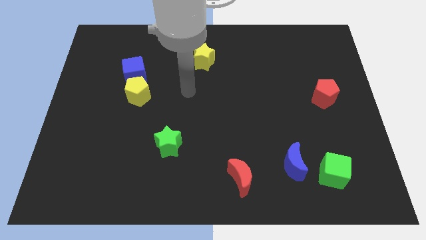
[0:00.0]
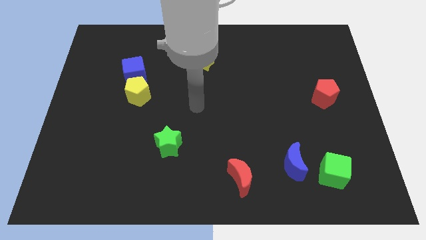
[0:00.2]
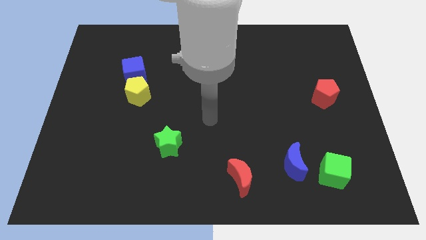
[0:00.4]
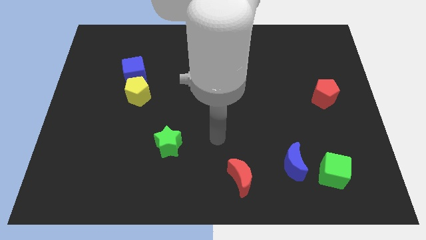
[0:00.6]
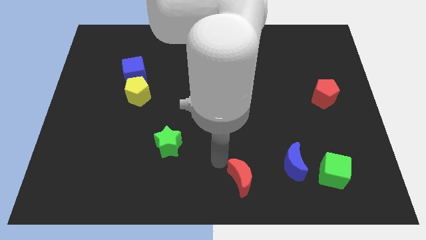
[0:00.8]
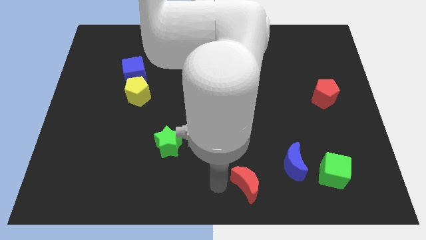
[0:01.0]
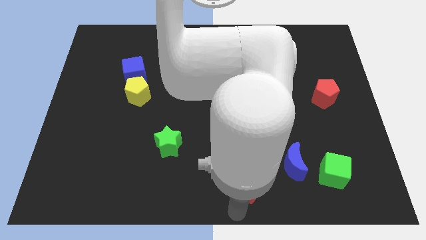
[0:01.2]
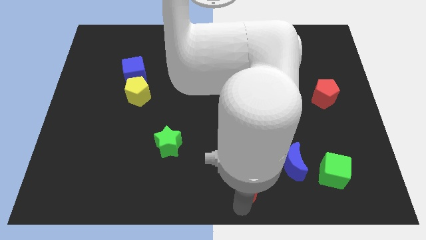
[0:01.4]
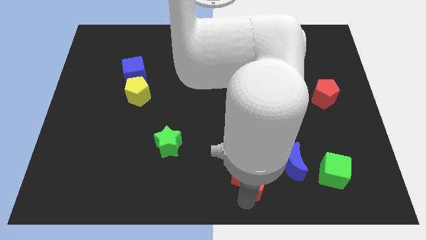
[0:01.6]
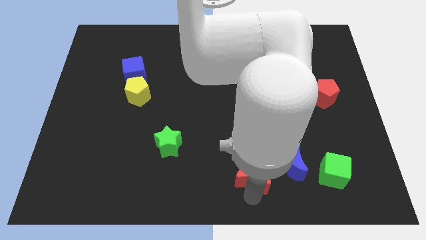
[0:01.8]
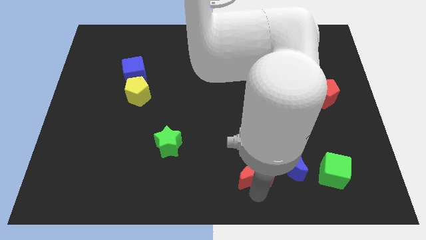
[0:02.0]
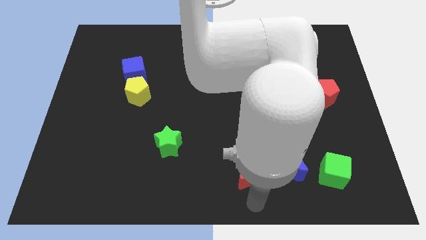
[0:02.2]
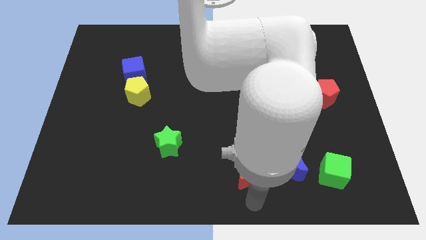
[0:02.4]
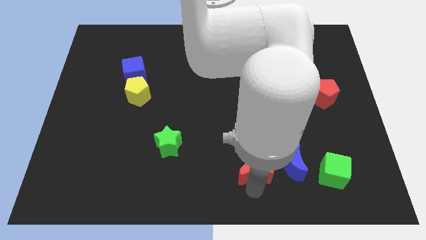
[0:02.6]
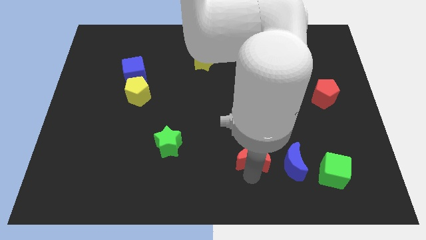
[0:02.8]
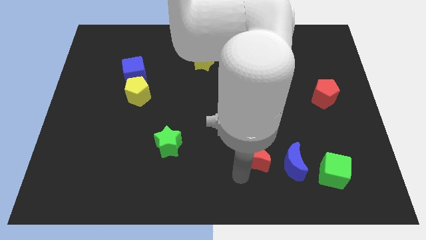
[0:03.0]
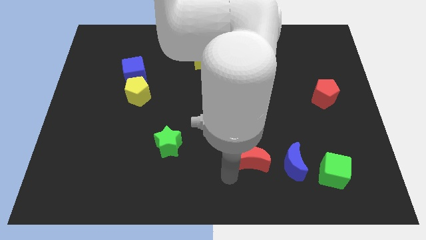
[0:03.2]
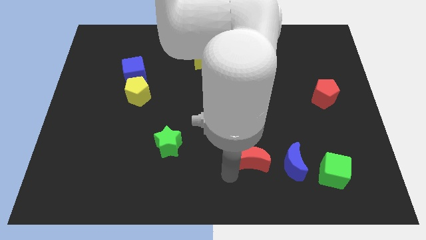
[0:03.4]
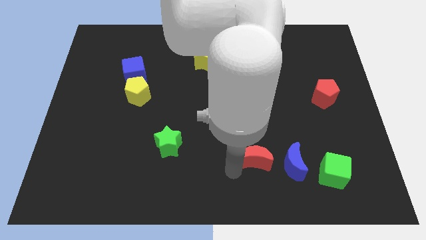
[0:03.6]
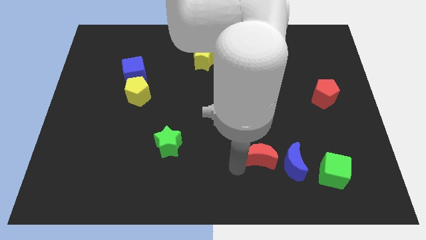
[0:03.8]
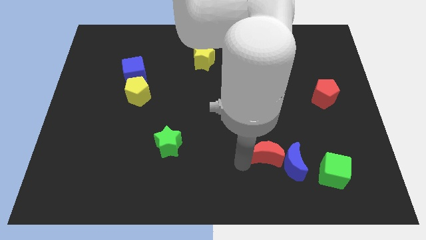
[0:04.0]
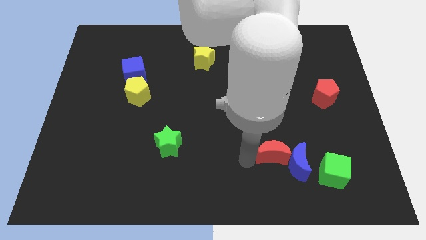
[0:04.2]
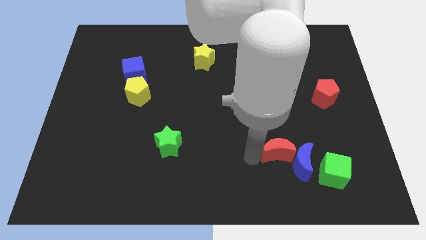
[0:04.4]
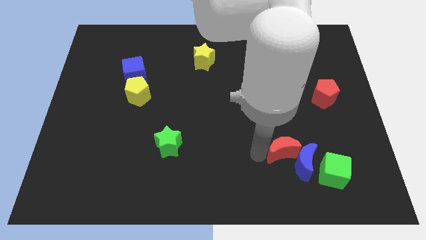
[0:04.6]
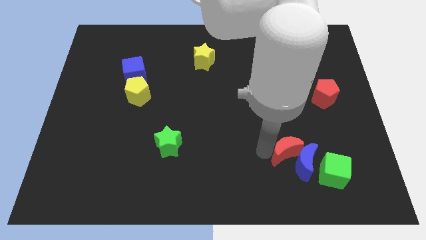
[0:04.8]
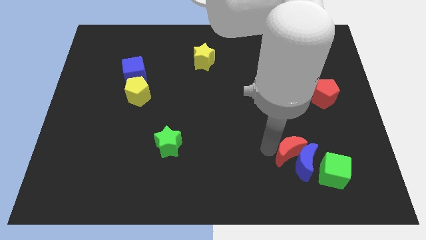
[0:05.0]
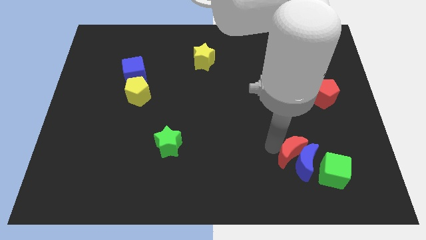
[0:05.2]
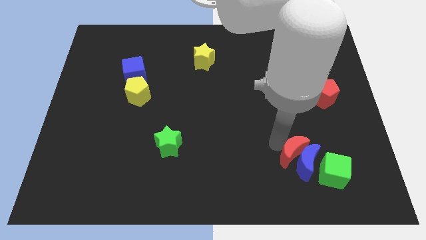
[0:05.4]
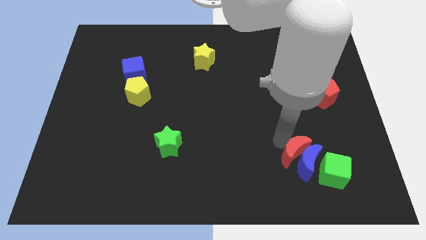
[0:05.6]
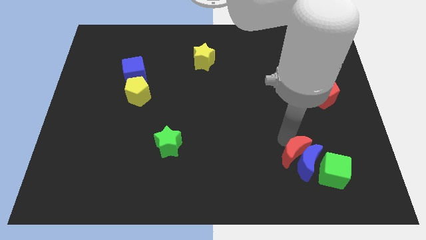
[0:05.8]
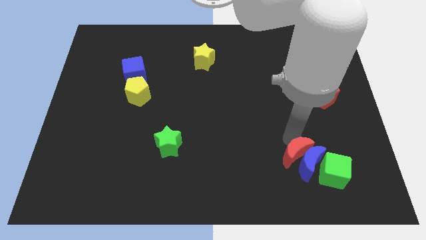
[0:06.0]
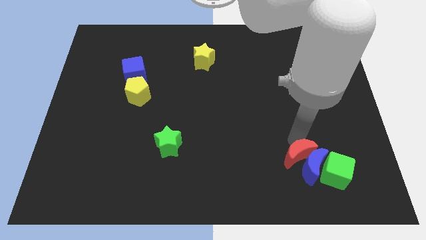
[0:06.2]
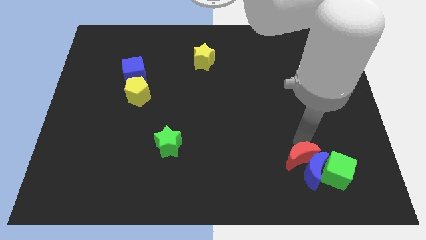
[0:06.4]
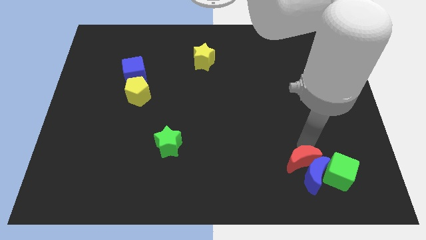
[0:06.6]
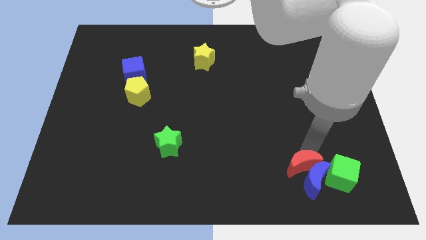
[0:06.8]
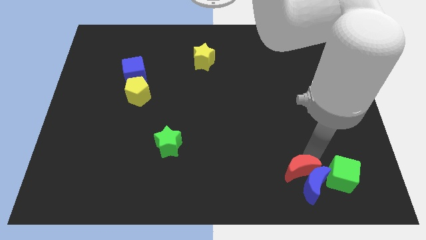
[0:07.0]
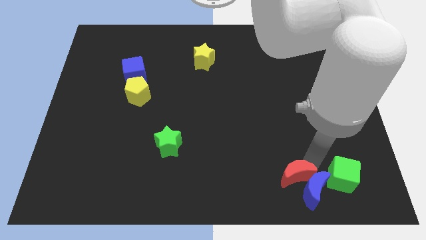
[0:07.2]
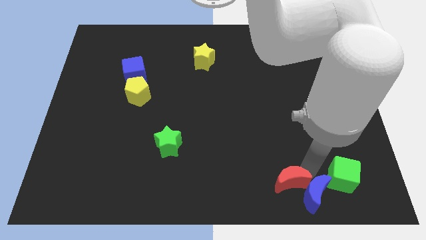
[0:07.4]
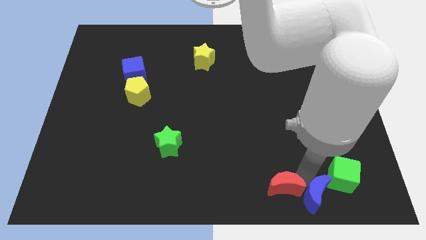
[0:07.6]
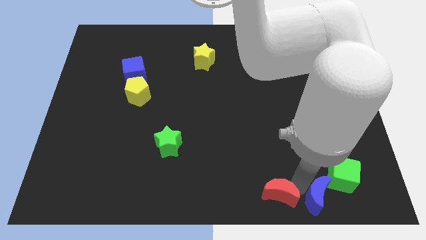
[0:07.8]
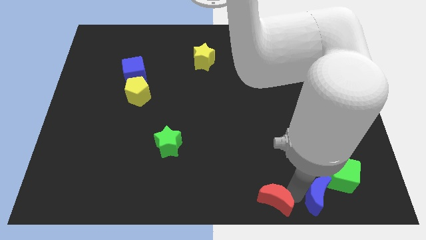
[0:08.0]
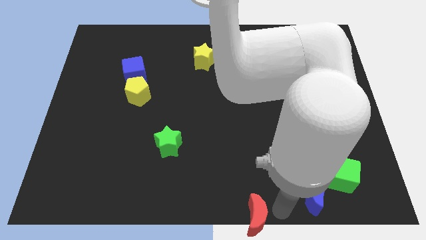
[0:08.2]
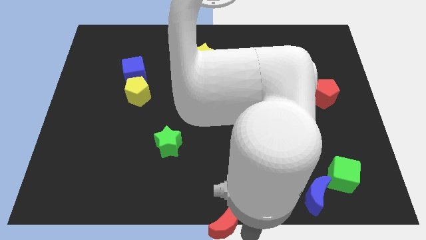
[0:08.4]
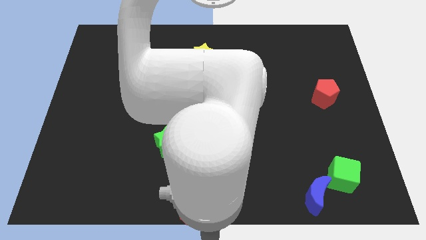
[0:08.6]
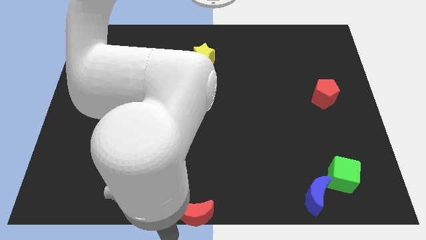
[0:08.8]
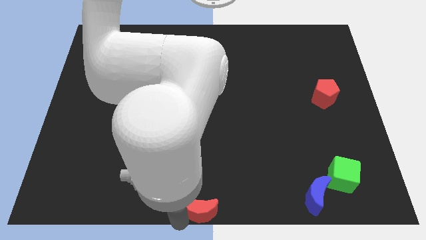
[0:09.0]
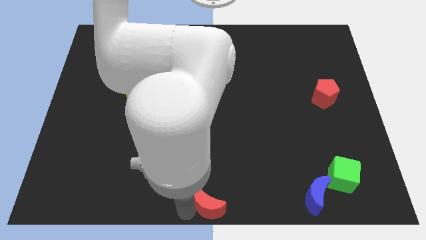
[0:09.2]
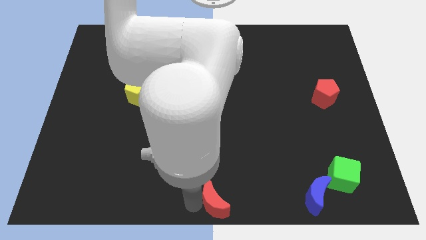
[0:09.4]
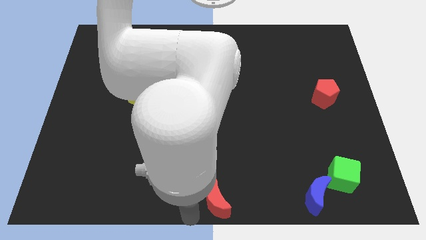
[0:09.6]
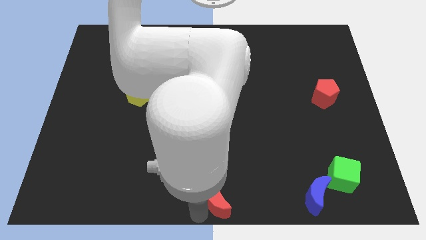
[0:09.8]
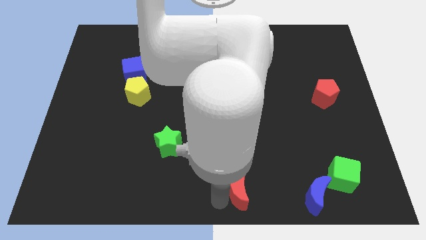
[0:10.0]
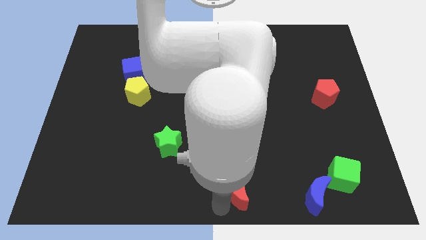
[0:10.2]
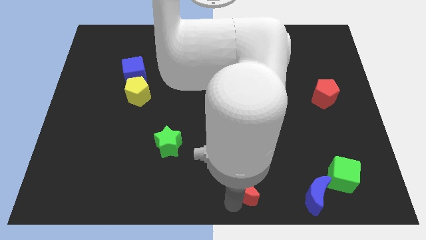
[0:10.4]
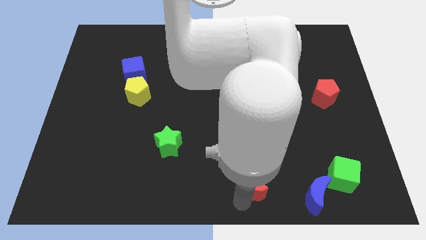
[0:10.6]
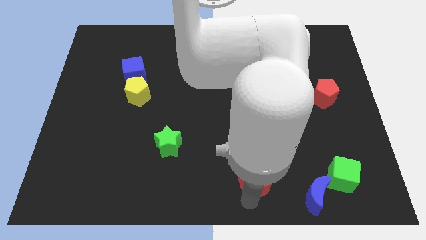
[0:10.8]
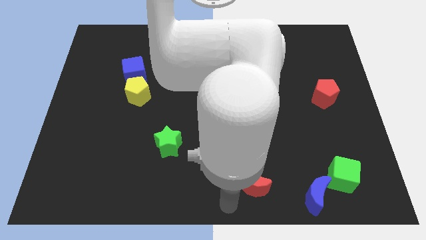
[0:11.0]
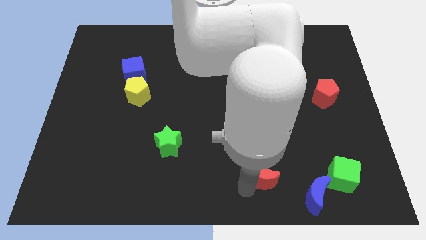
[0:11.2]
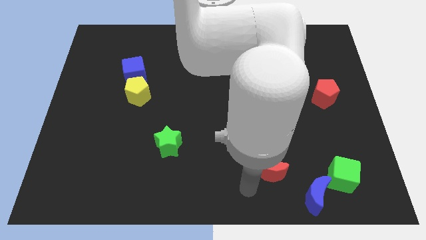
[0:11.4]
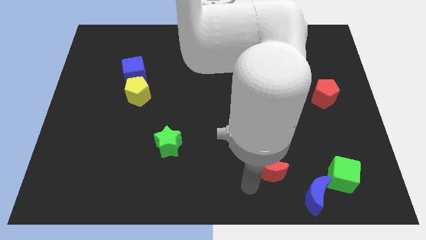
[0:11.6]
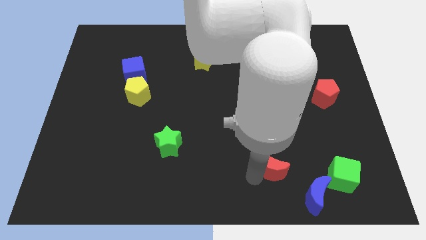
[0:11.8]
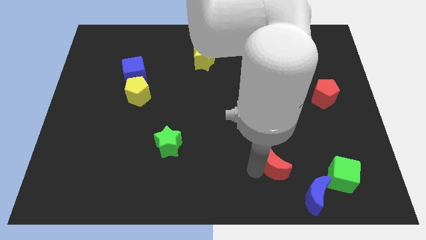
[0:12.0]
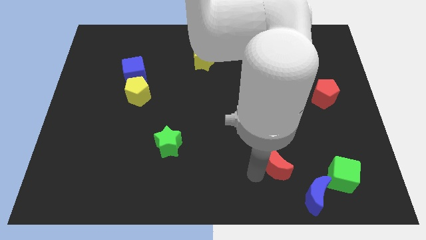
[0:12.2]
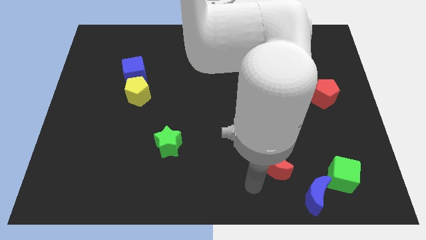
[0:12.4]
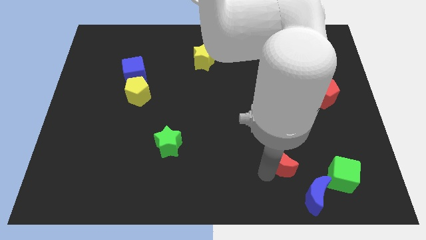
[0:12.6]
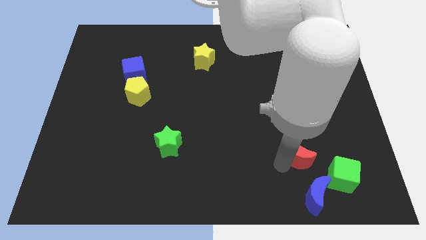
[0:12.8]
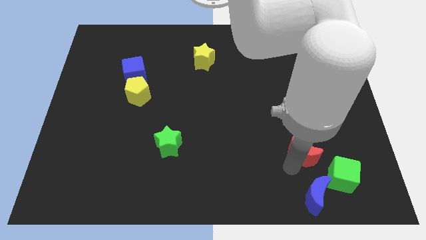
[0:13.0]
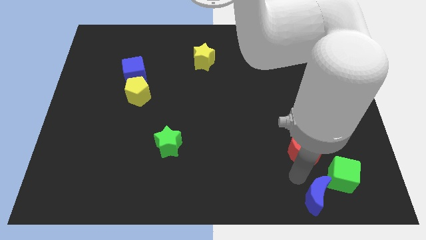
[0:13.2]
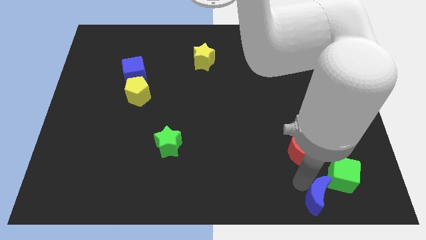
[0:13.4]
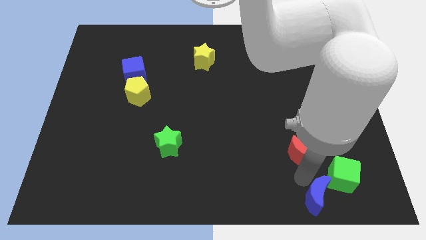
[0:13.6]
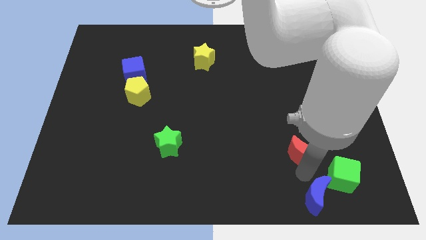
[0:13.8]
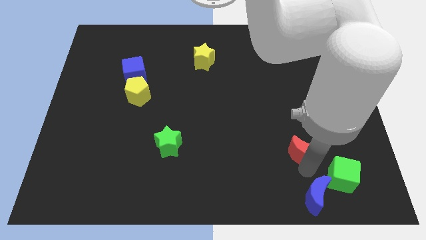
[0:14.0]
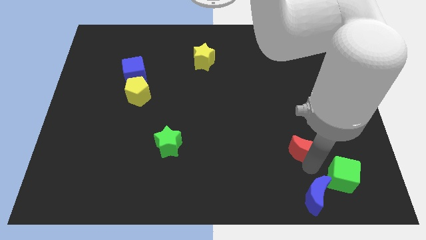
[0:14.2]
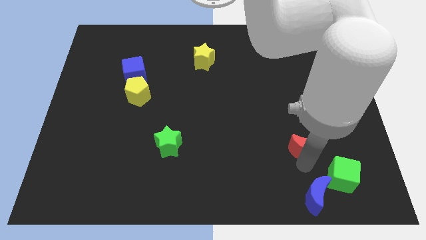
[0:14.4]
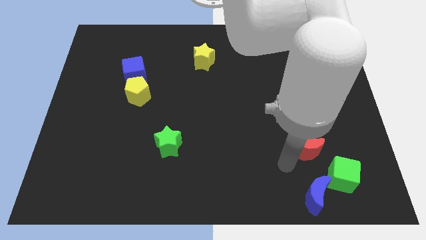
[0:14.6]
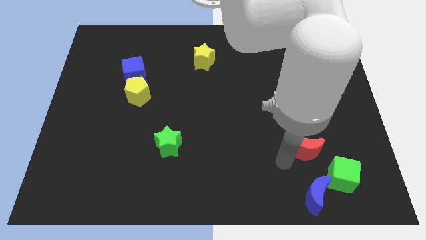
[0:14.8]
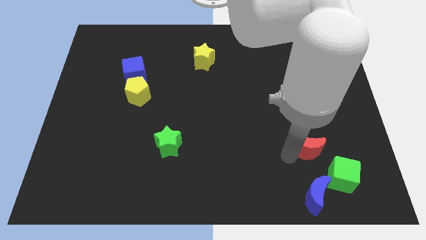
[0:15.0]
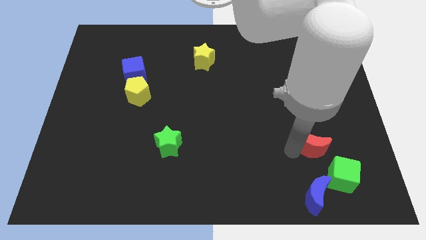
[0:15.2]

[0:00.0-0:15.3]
put the red moon above the green cube
